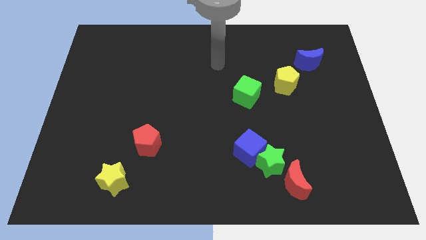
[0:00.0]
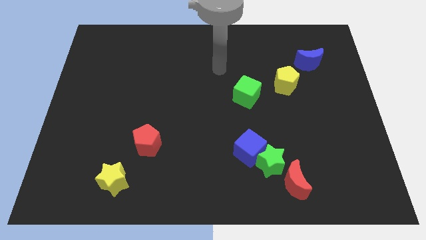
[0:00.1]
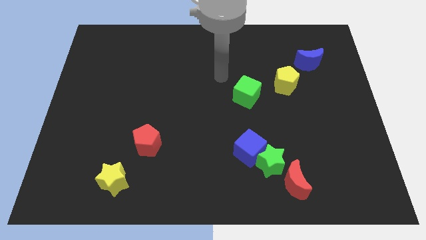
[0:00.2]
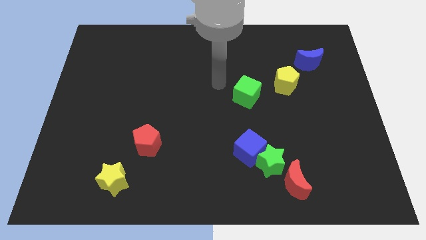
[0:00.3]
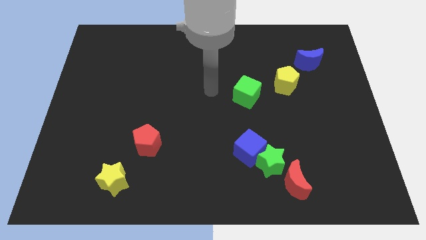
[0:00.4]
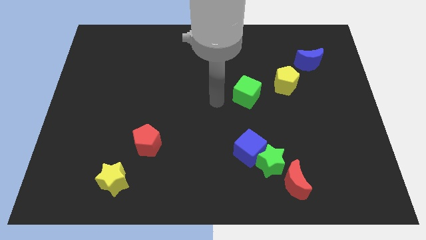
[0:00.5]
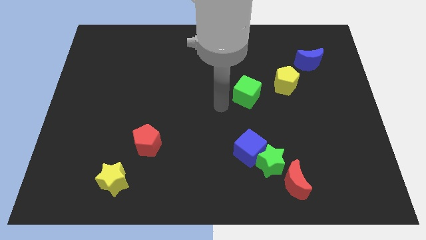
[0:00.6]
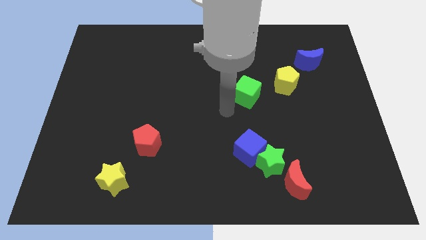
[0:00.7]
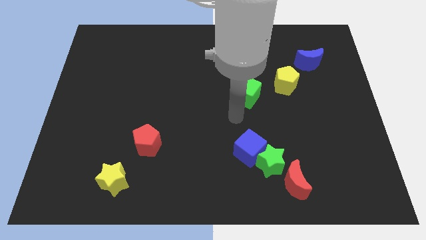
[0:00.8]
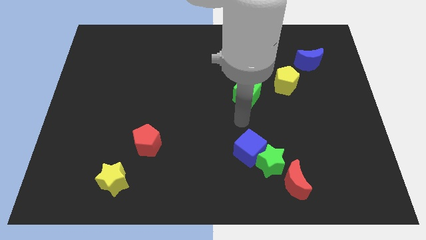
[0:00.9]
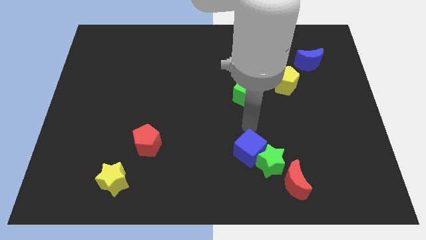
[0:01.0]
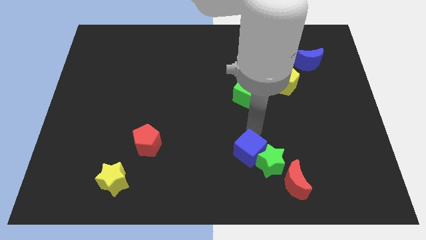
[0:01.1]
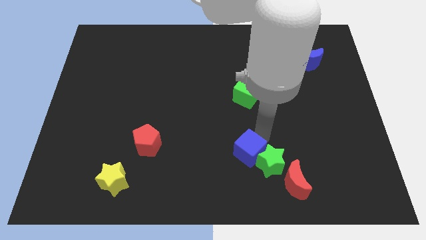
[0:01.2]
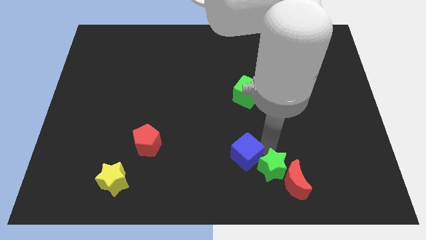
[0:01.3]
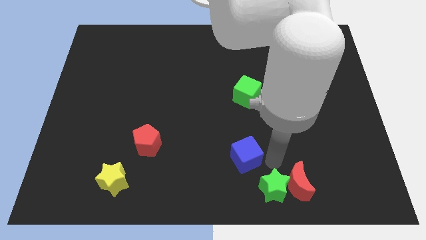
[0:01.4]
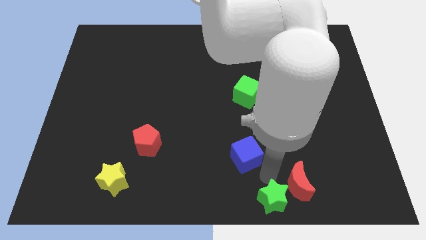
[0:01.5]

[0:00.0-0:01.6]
pull the blue cube apart from the green star

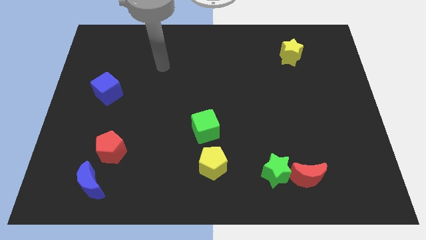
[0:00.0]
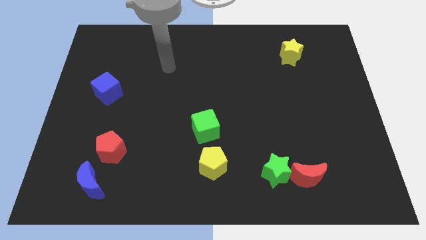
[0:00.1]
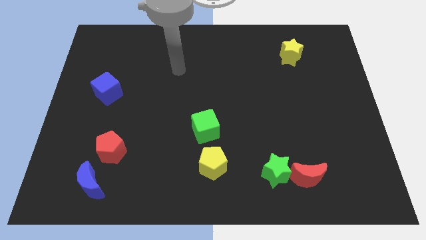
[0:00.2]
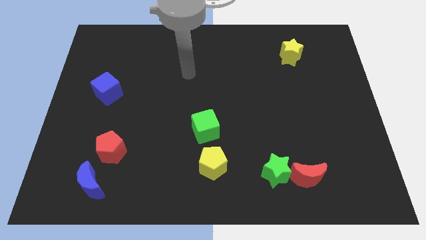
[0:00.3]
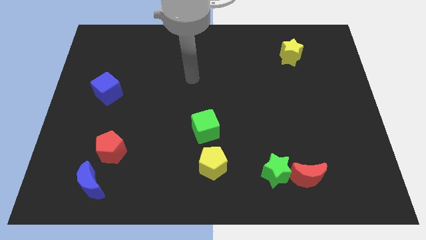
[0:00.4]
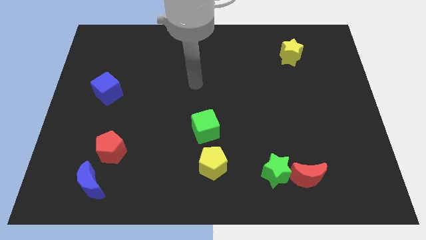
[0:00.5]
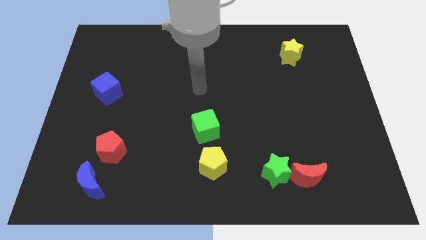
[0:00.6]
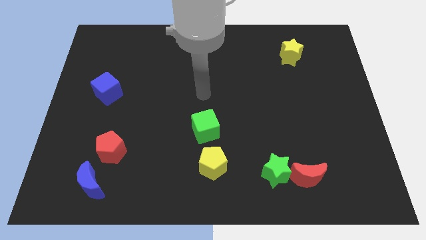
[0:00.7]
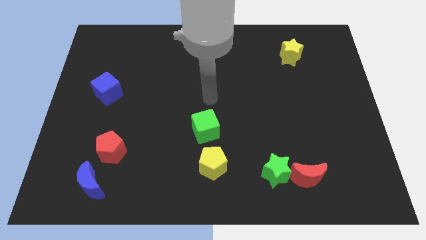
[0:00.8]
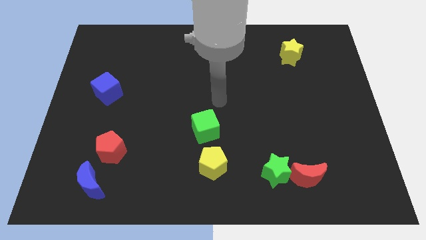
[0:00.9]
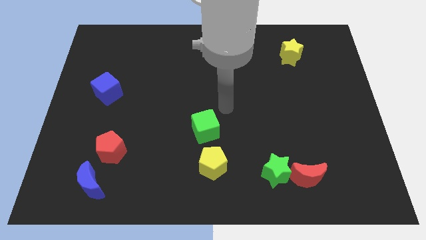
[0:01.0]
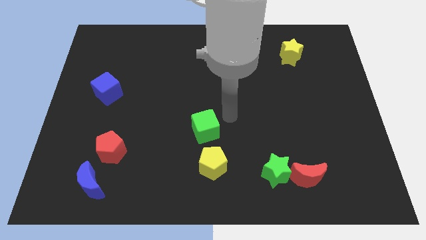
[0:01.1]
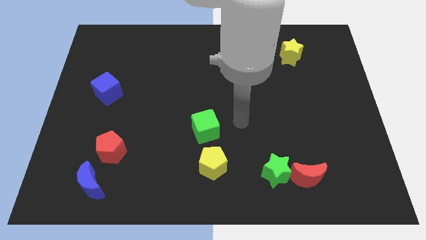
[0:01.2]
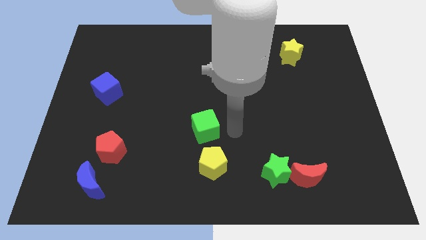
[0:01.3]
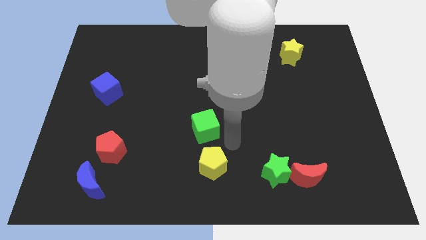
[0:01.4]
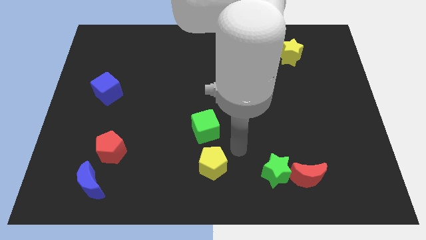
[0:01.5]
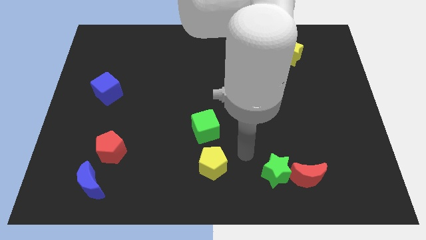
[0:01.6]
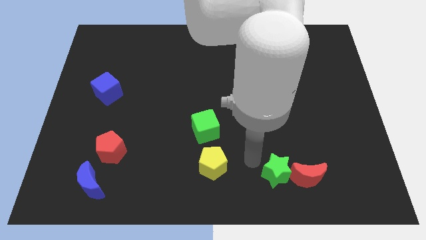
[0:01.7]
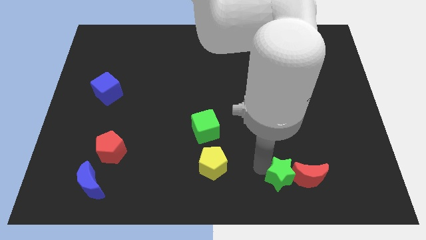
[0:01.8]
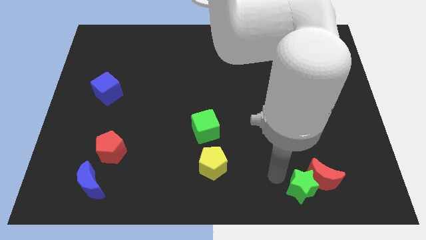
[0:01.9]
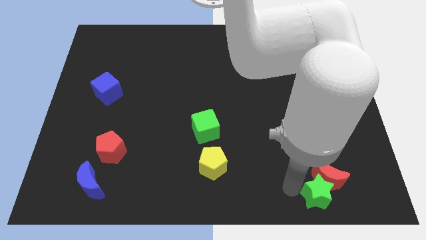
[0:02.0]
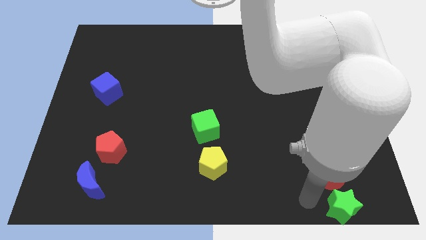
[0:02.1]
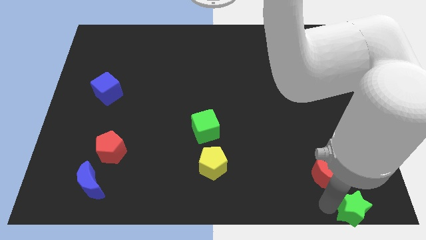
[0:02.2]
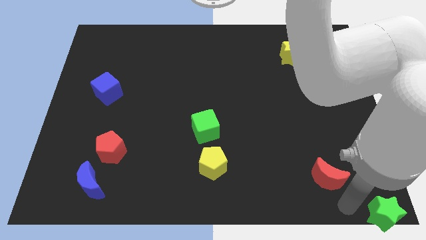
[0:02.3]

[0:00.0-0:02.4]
separate the red moon from the green star

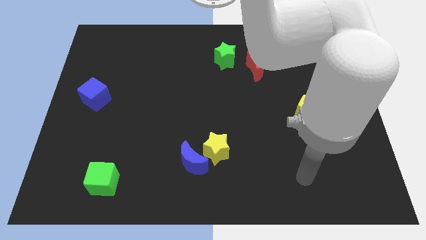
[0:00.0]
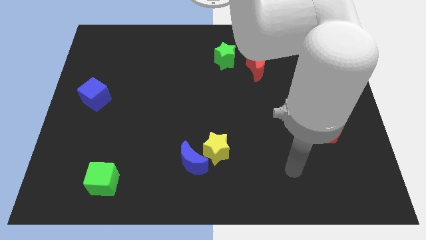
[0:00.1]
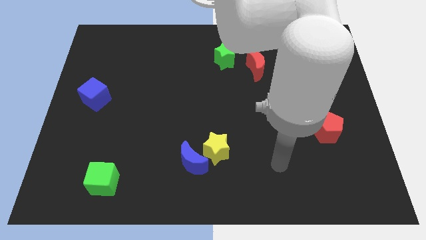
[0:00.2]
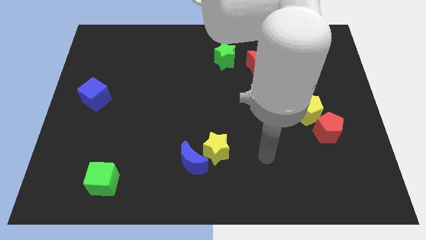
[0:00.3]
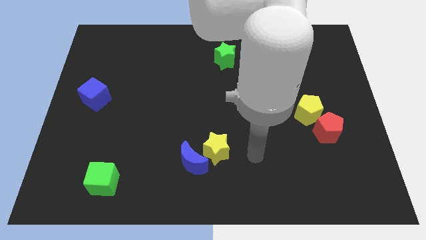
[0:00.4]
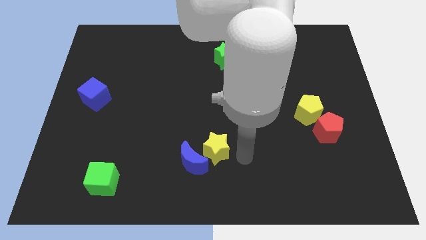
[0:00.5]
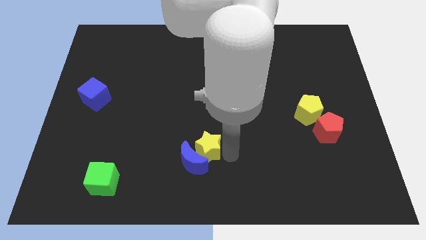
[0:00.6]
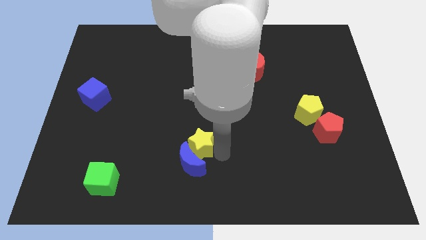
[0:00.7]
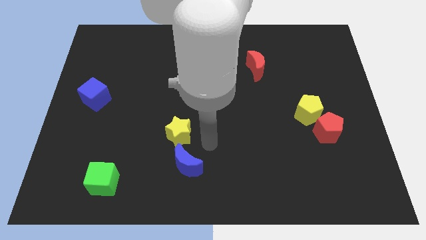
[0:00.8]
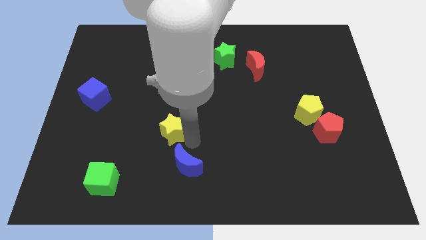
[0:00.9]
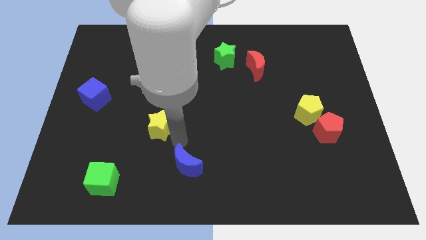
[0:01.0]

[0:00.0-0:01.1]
move the blue moon away from the yellow star

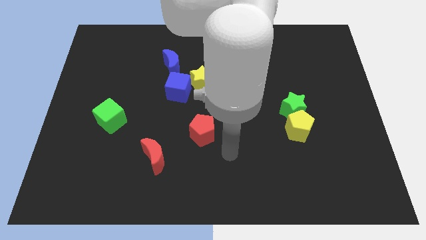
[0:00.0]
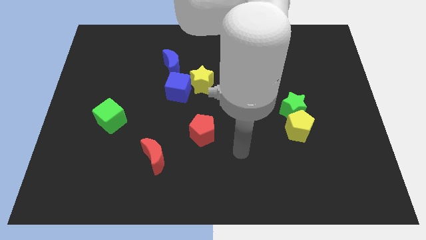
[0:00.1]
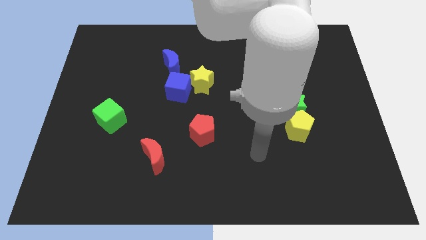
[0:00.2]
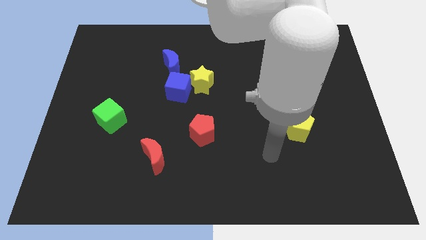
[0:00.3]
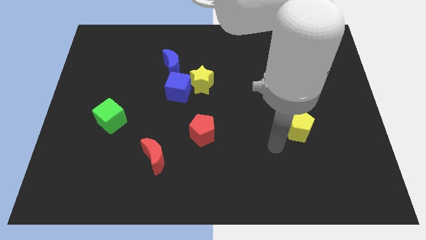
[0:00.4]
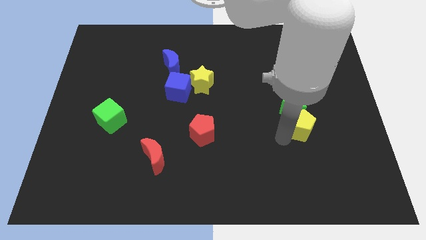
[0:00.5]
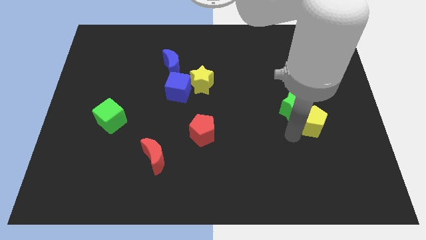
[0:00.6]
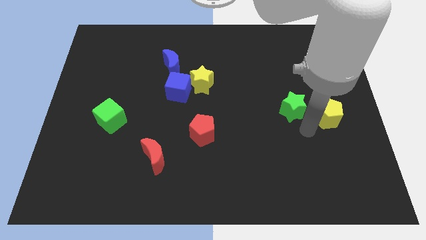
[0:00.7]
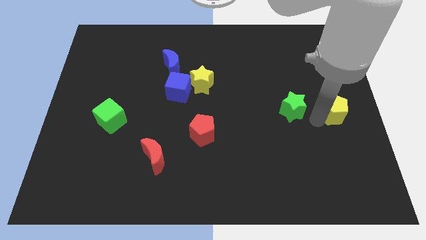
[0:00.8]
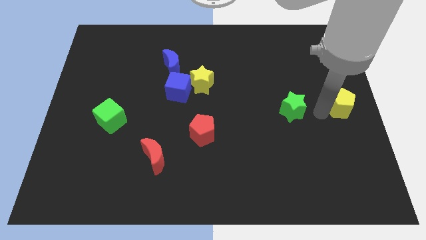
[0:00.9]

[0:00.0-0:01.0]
move the green star away from the yellow pentagon

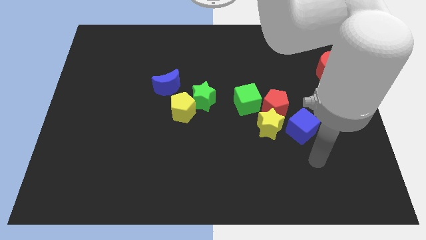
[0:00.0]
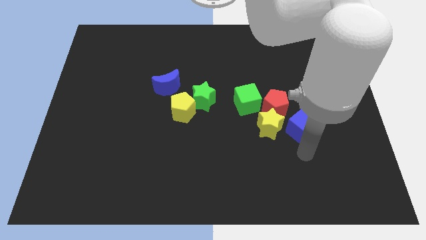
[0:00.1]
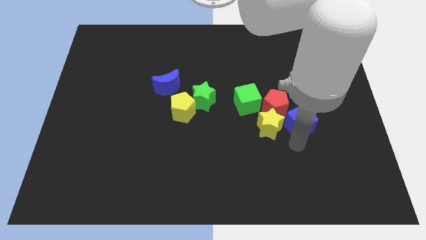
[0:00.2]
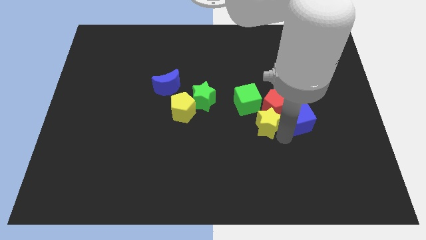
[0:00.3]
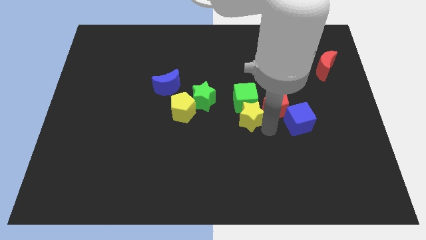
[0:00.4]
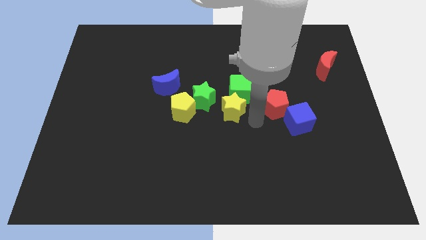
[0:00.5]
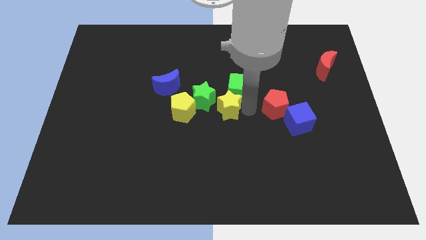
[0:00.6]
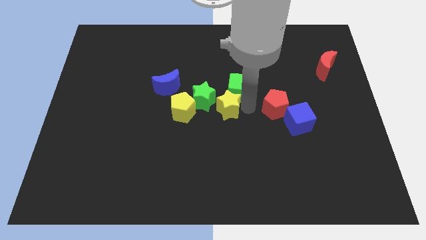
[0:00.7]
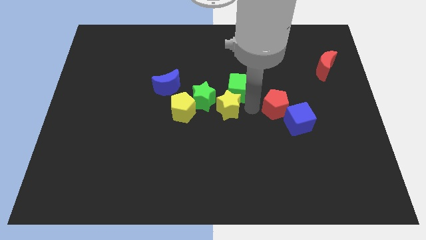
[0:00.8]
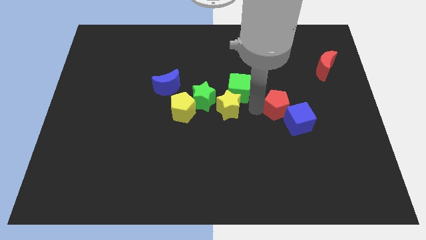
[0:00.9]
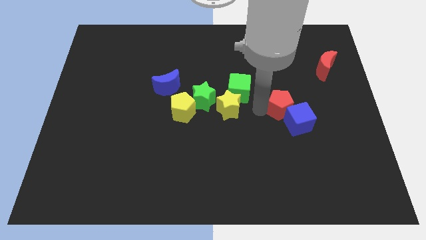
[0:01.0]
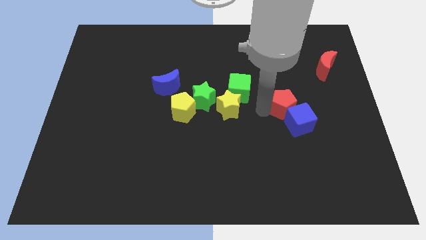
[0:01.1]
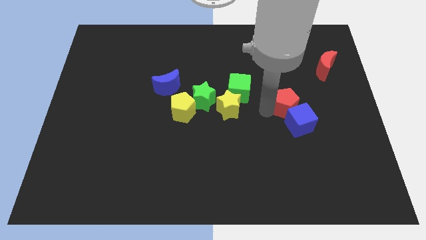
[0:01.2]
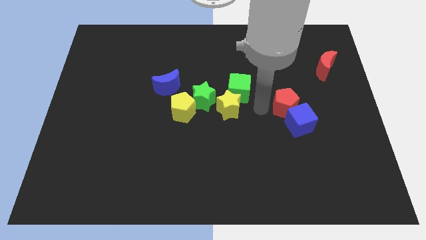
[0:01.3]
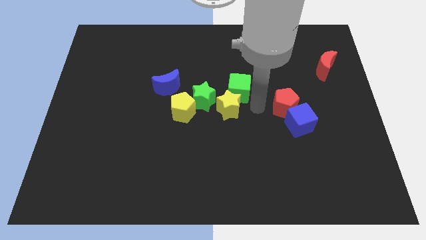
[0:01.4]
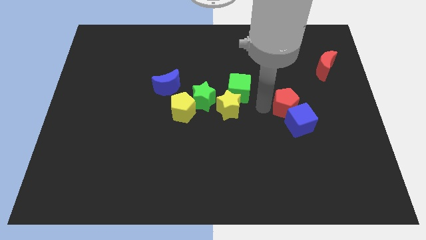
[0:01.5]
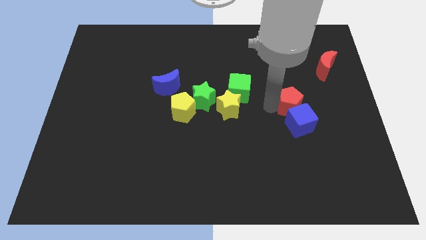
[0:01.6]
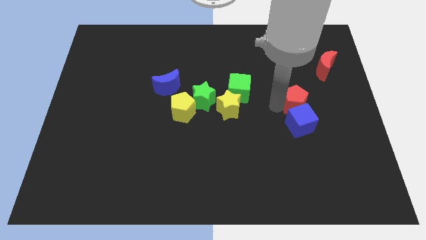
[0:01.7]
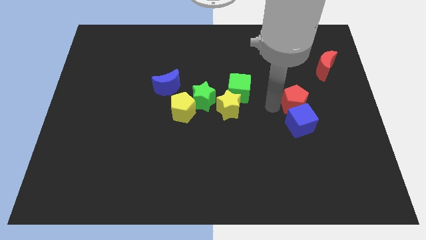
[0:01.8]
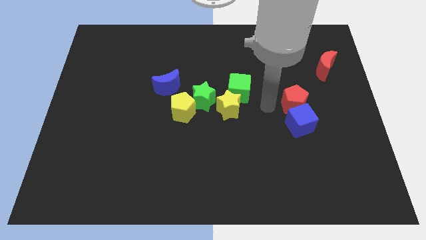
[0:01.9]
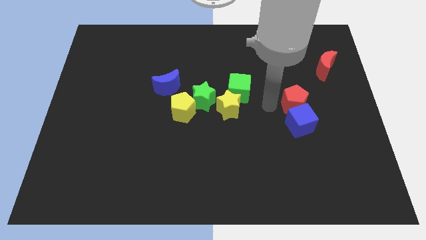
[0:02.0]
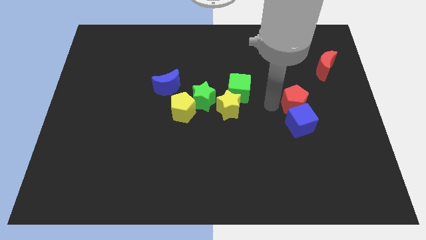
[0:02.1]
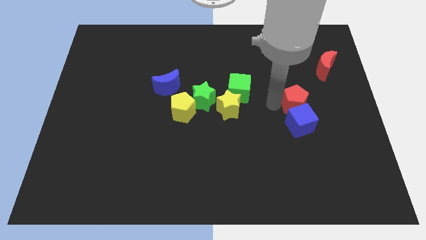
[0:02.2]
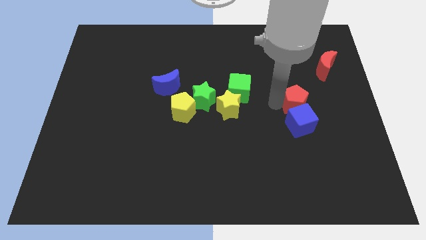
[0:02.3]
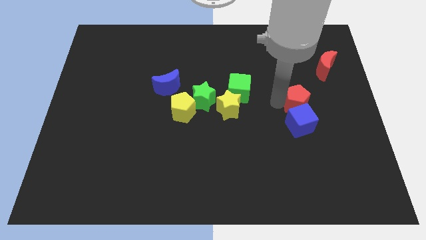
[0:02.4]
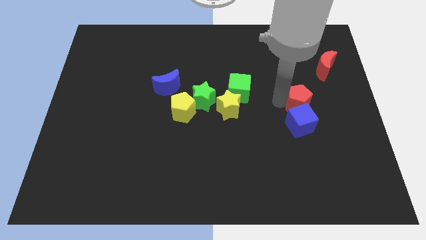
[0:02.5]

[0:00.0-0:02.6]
separate the red pentagon from the clump

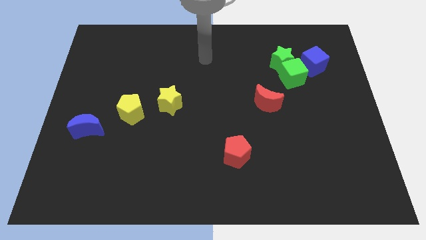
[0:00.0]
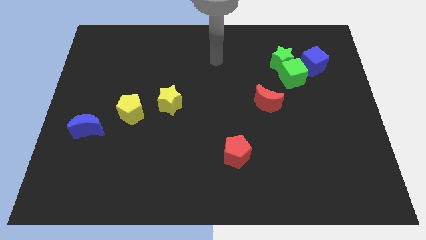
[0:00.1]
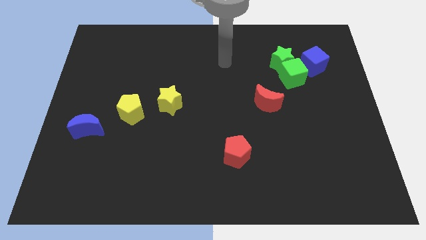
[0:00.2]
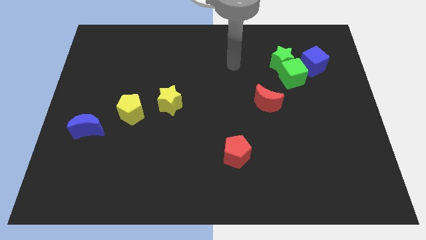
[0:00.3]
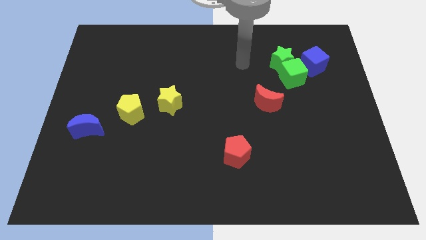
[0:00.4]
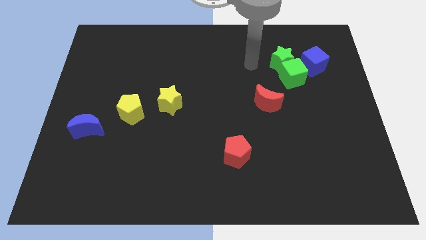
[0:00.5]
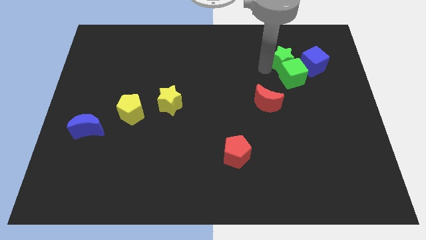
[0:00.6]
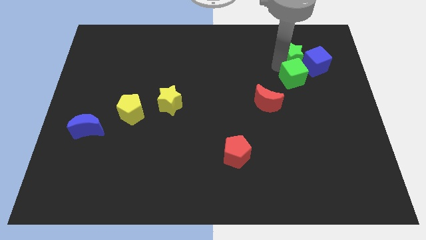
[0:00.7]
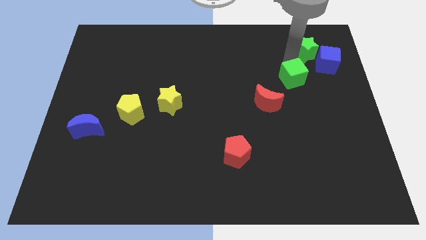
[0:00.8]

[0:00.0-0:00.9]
separate the green cube from the green star and blue cube
